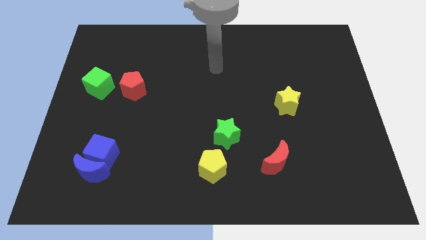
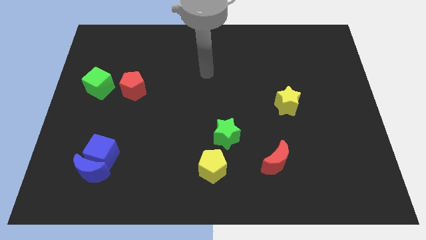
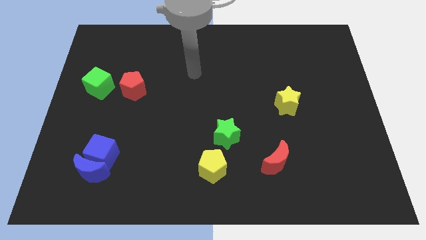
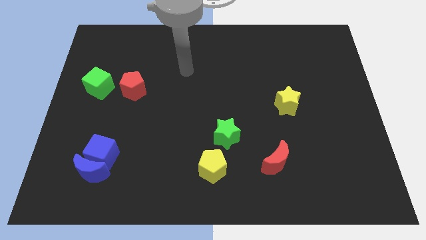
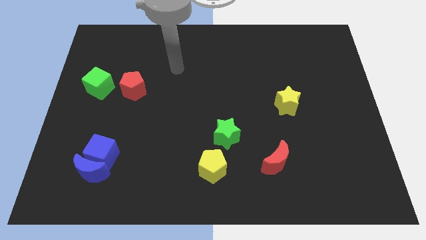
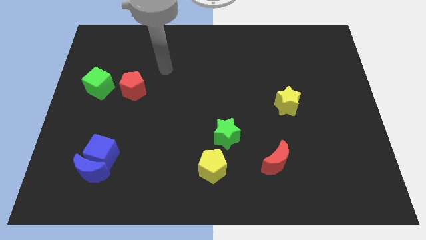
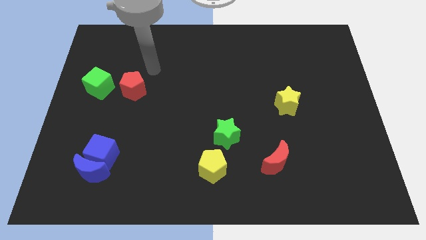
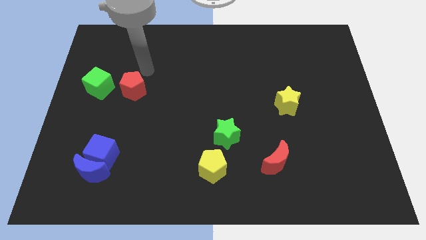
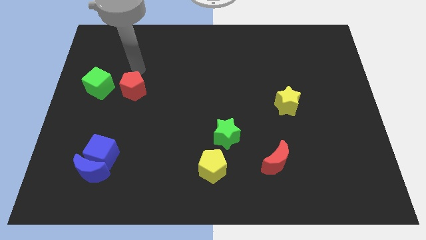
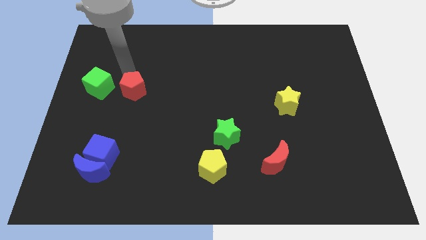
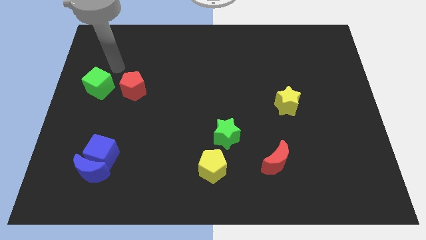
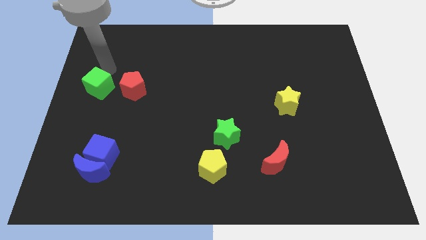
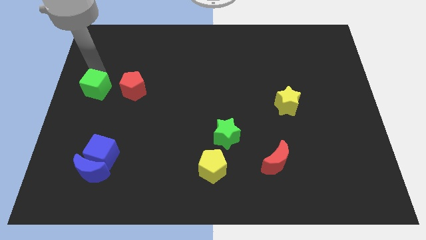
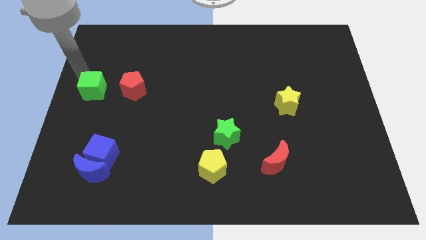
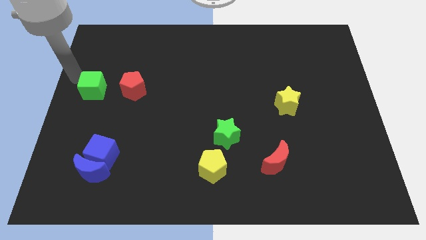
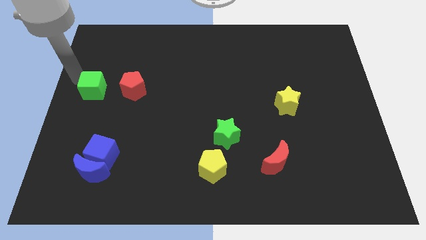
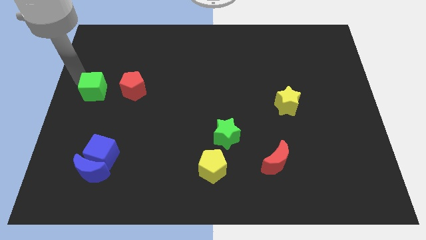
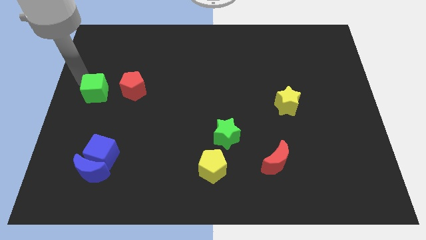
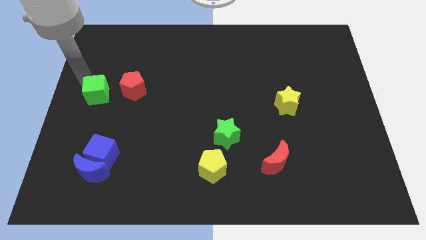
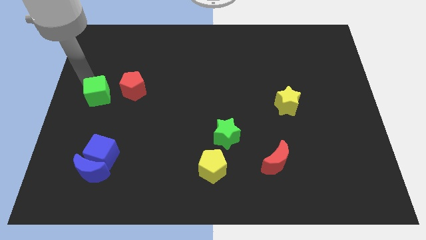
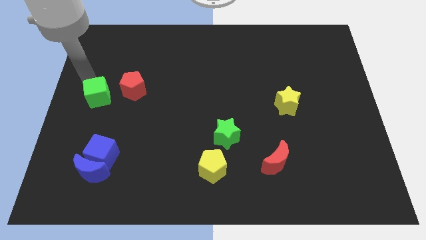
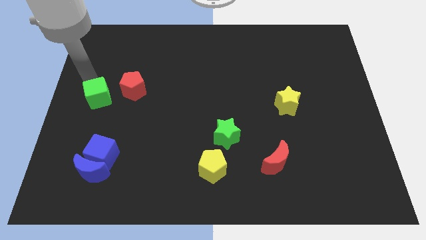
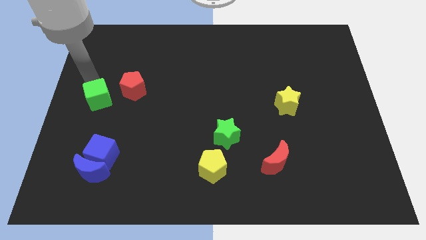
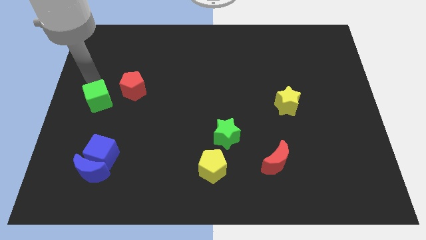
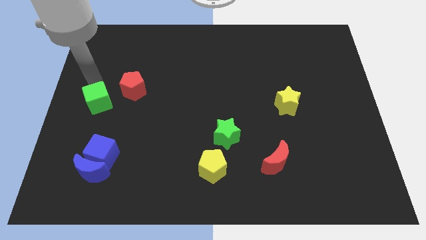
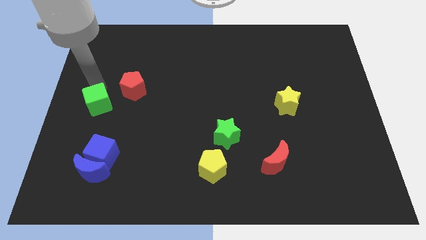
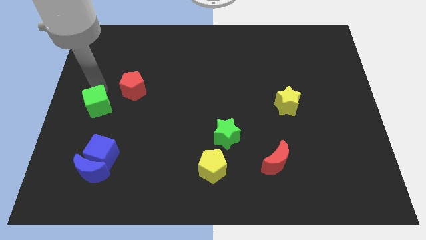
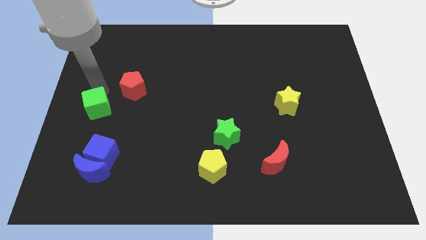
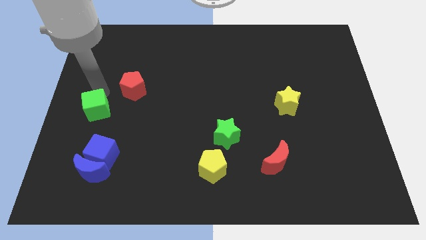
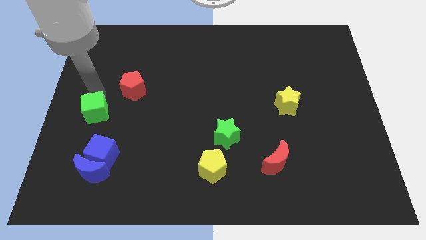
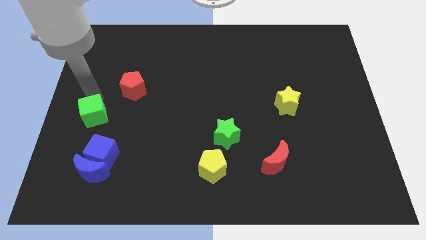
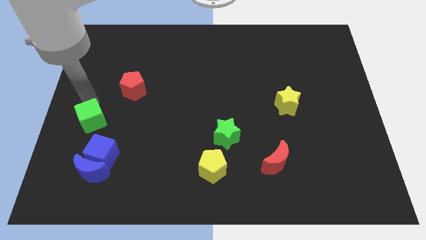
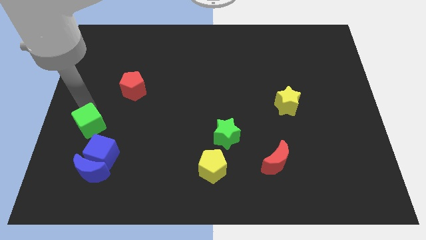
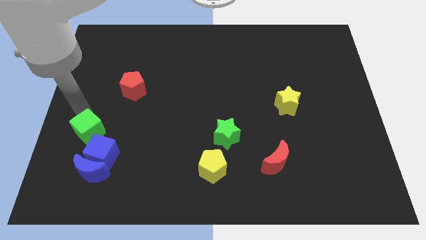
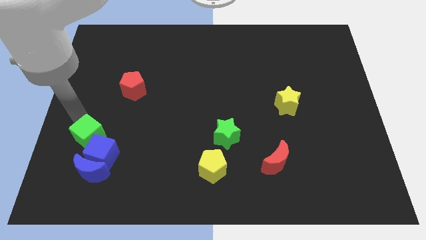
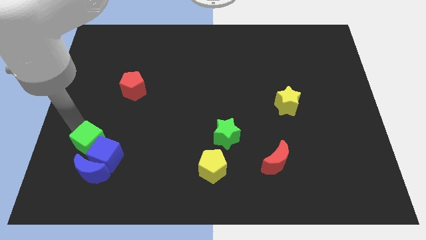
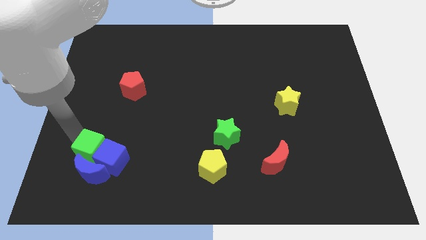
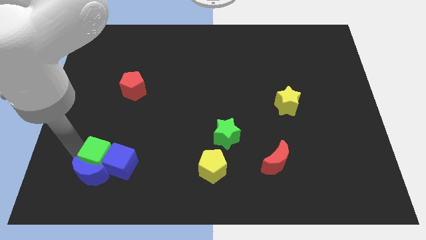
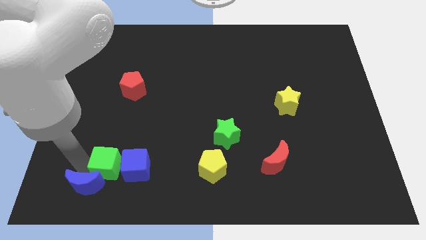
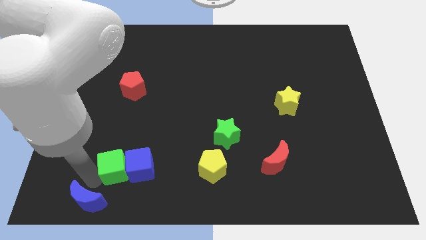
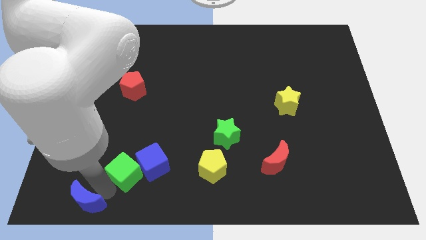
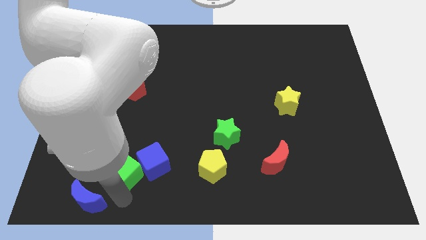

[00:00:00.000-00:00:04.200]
slide the green cube down and then right

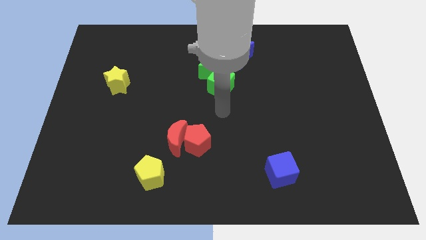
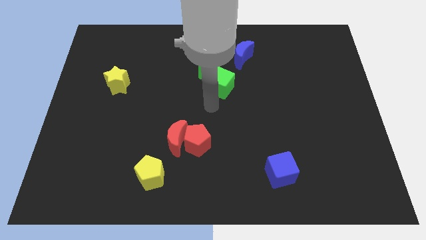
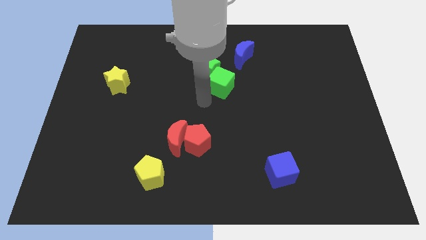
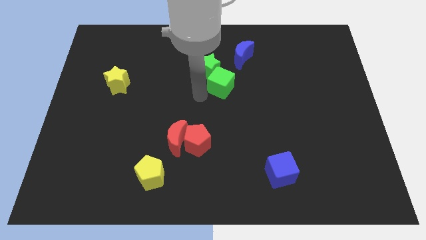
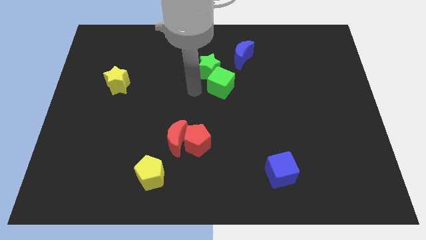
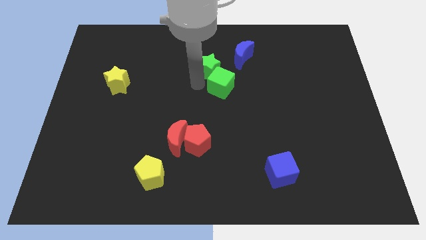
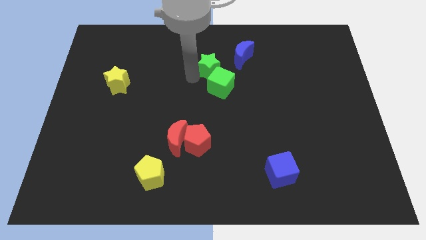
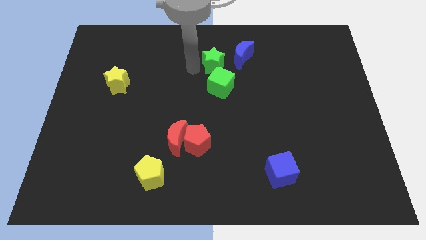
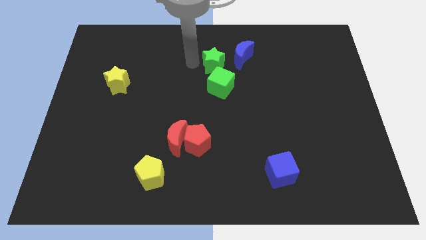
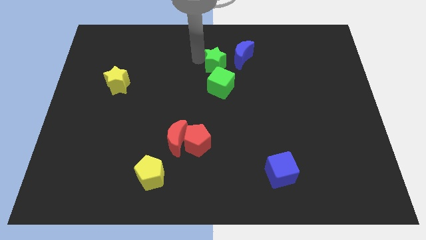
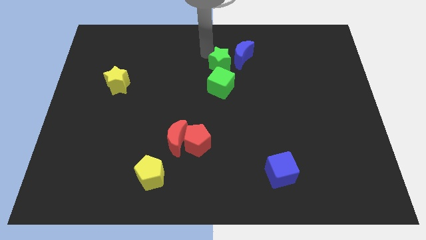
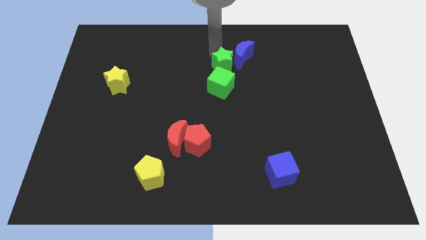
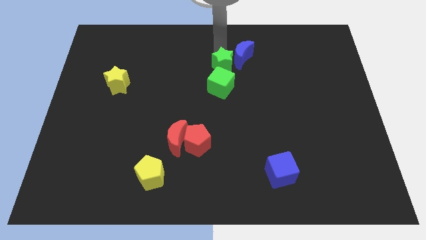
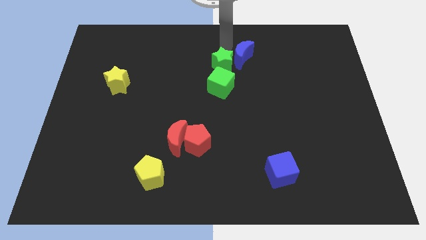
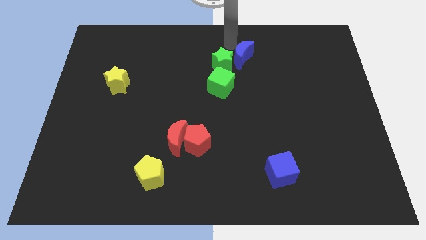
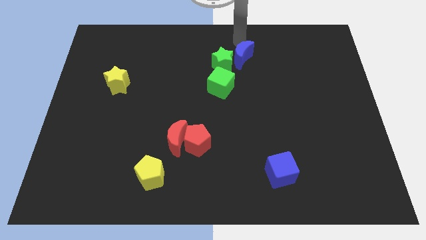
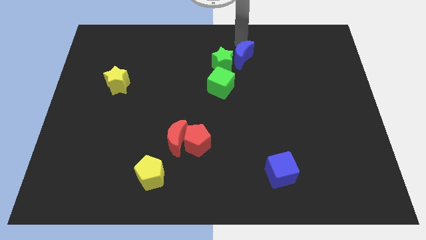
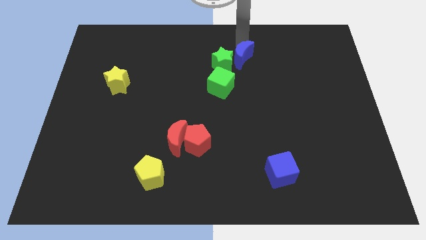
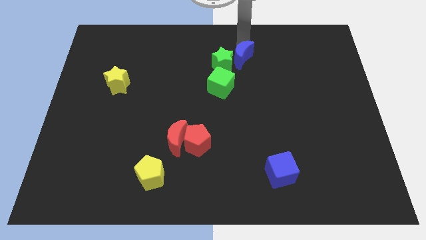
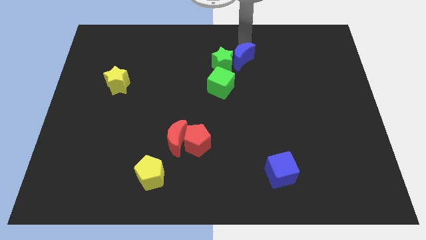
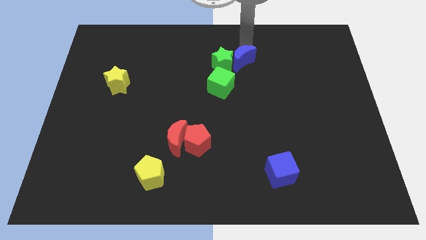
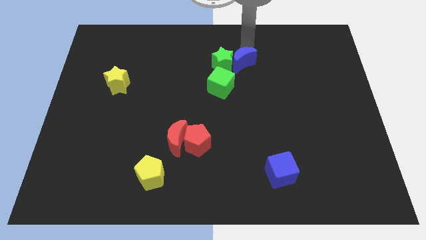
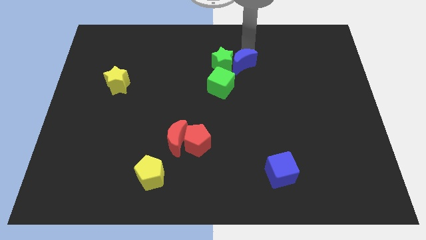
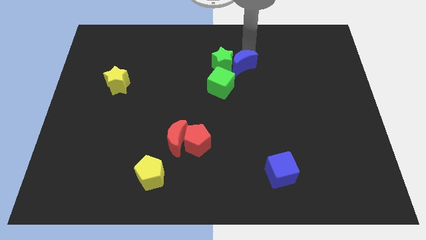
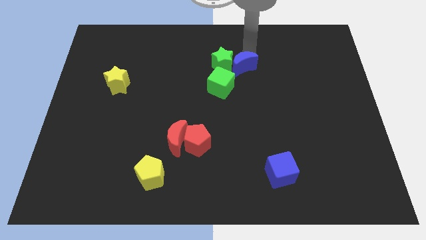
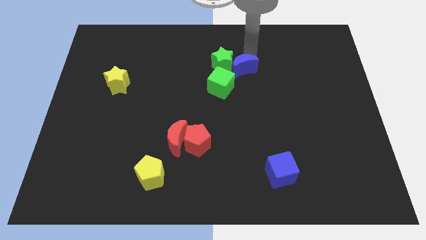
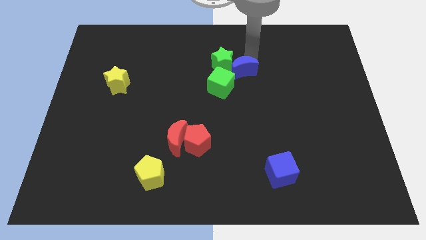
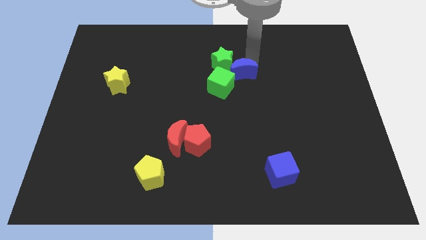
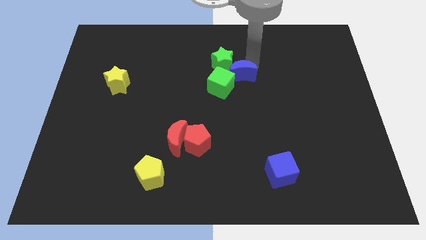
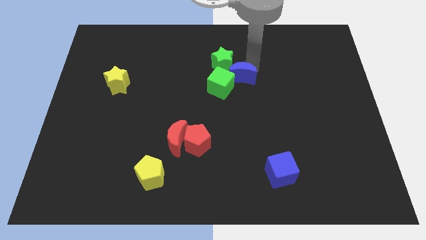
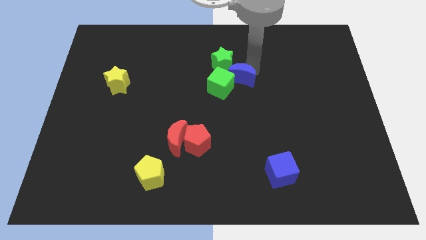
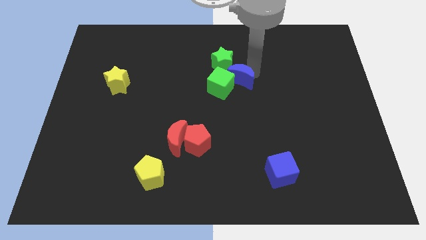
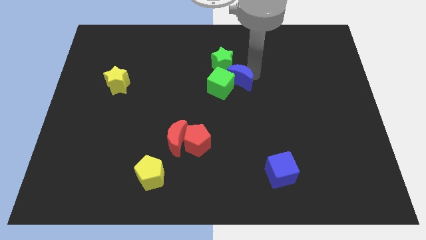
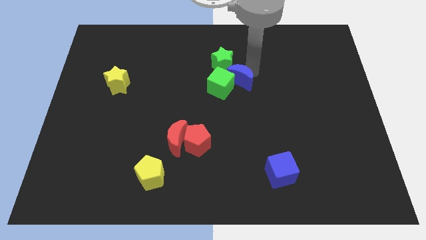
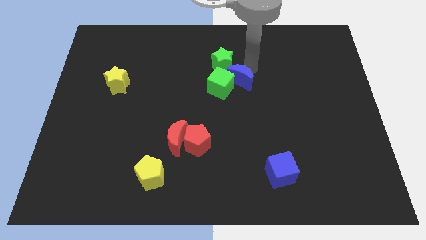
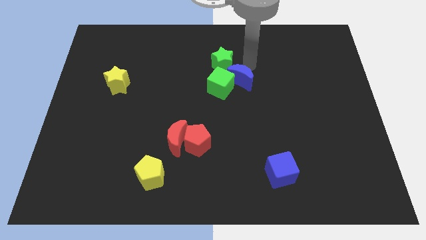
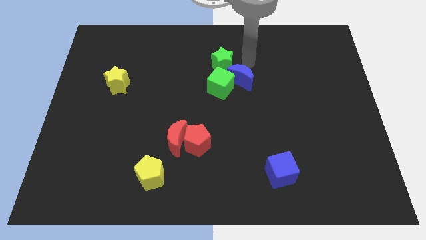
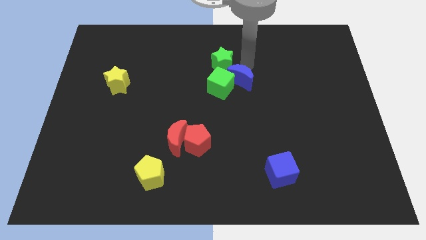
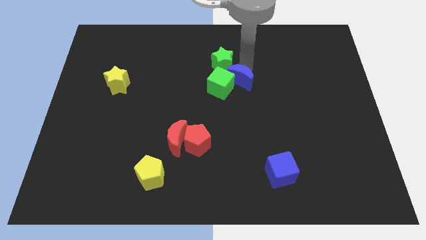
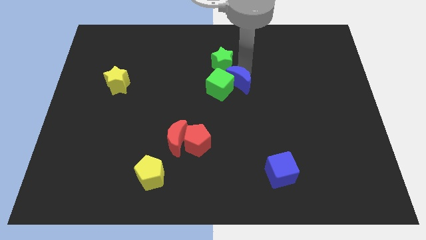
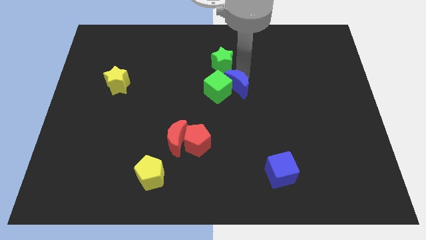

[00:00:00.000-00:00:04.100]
push the blue moon a little bit downwards and left
